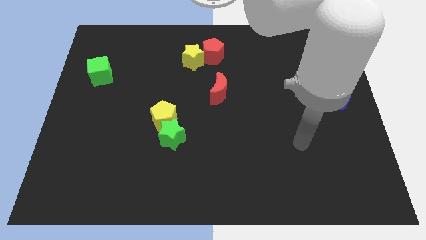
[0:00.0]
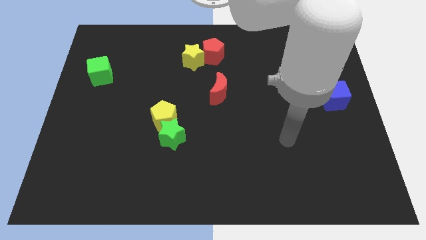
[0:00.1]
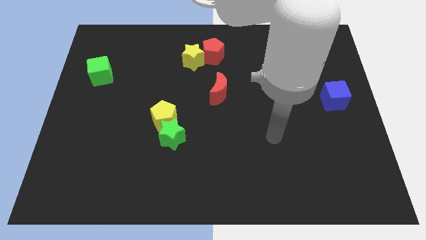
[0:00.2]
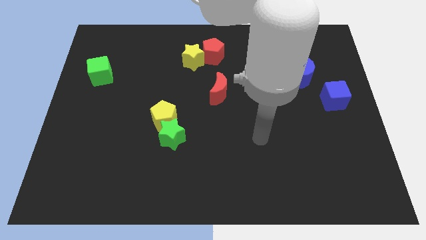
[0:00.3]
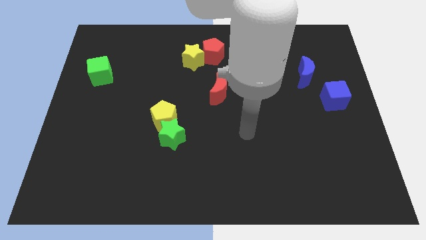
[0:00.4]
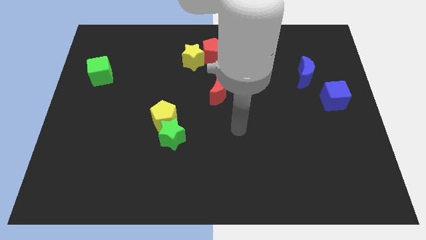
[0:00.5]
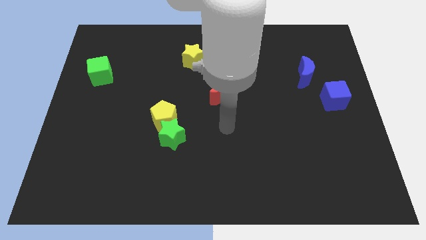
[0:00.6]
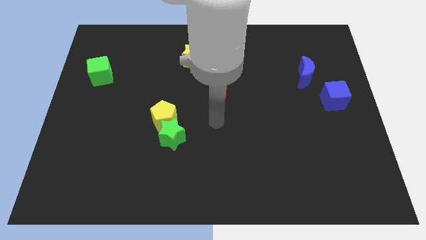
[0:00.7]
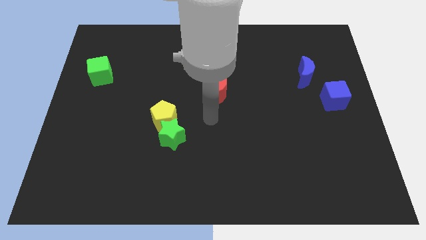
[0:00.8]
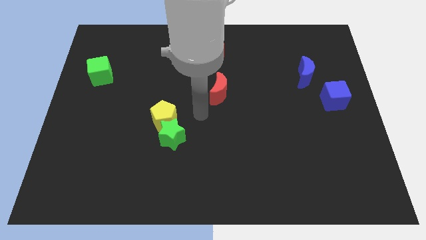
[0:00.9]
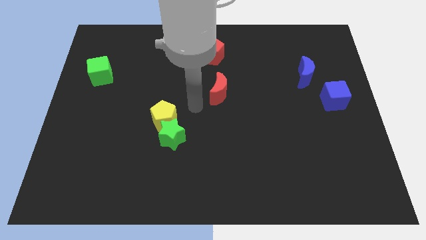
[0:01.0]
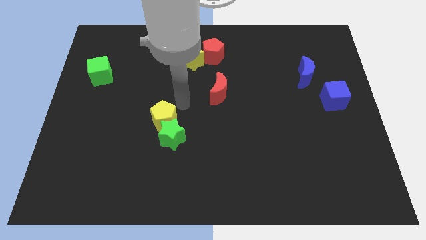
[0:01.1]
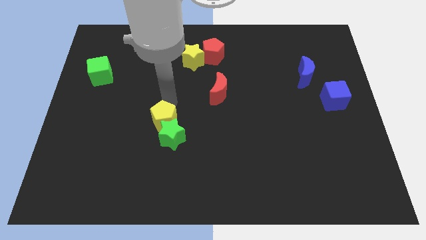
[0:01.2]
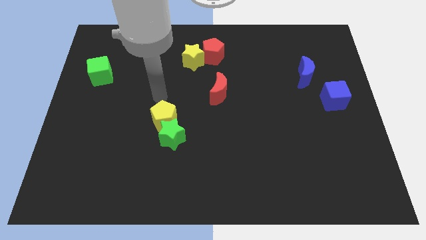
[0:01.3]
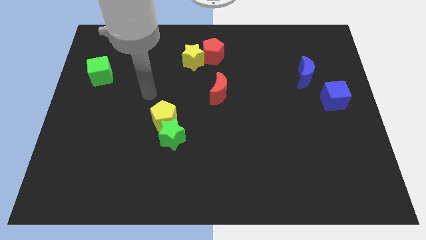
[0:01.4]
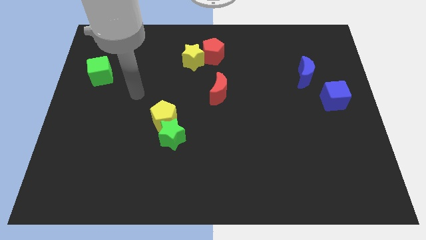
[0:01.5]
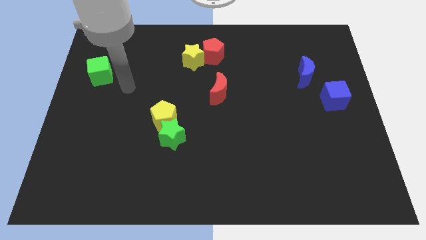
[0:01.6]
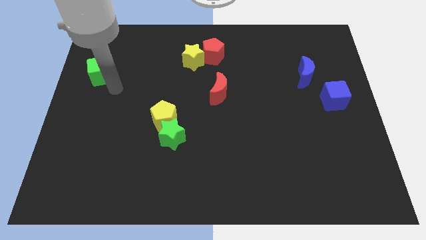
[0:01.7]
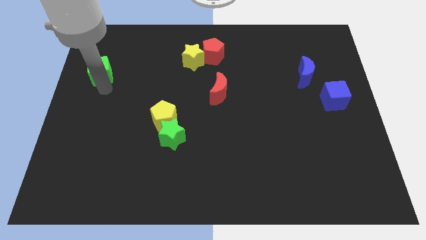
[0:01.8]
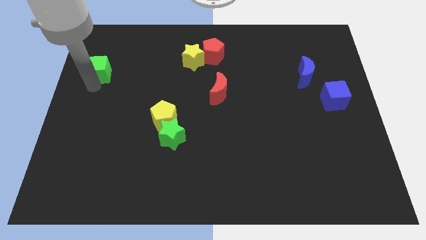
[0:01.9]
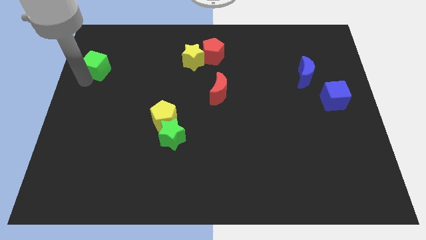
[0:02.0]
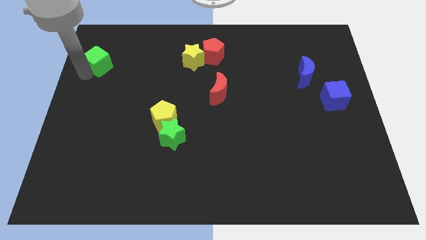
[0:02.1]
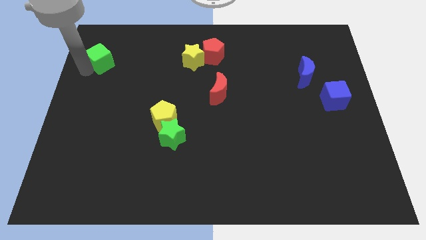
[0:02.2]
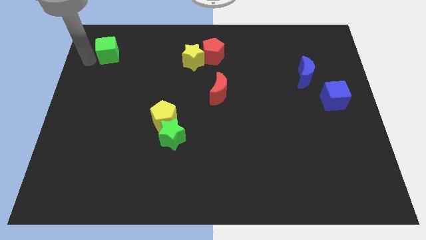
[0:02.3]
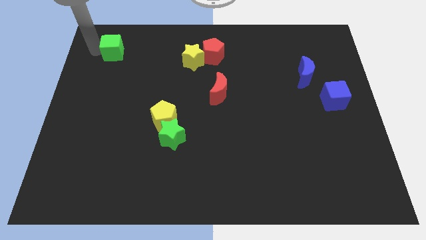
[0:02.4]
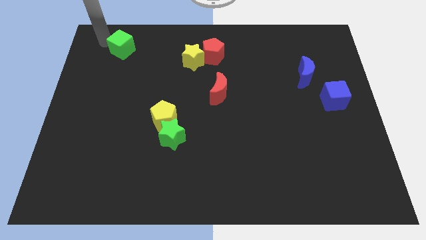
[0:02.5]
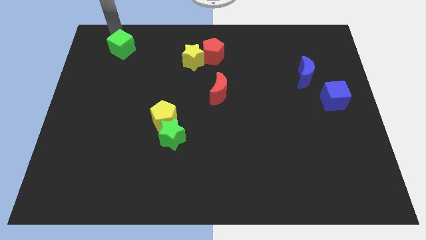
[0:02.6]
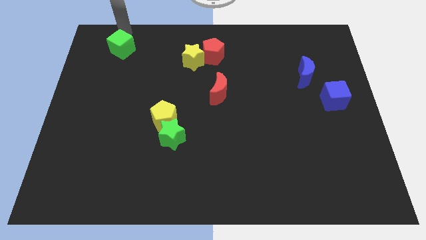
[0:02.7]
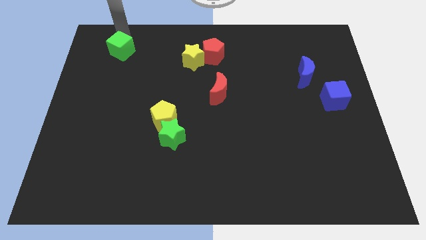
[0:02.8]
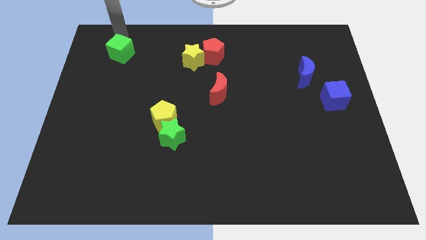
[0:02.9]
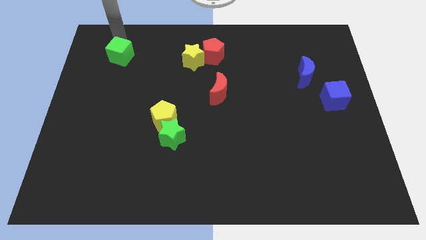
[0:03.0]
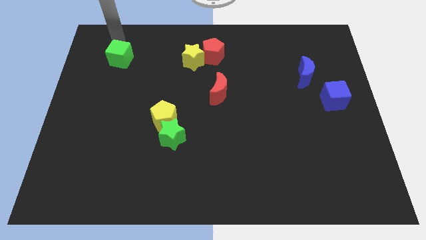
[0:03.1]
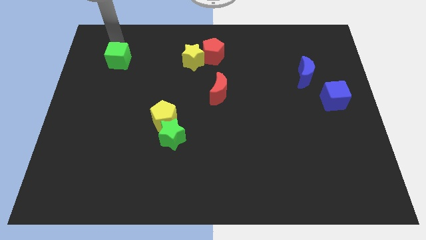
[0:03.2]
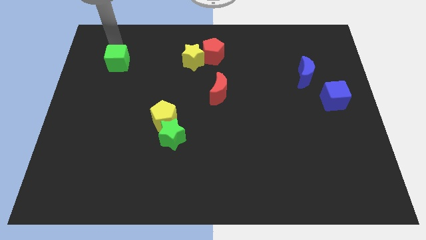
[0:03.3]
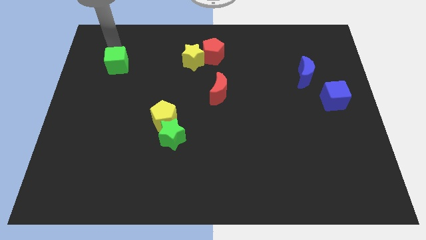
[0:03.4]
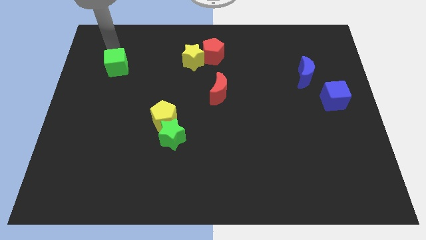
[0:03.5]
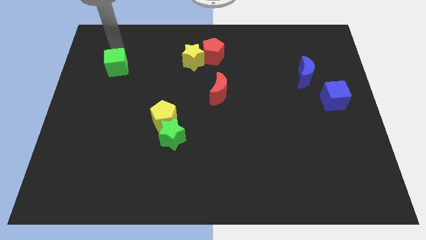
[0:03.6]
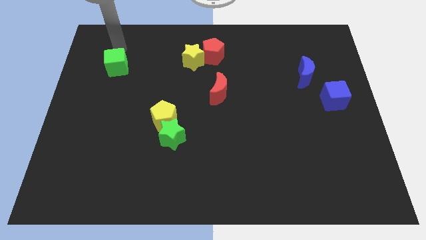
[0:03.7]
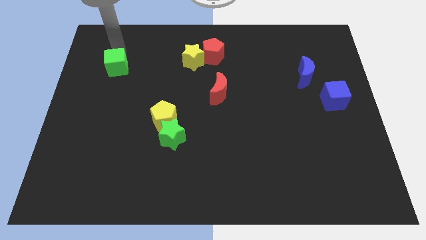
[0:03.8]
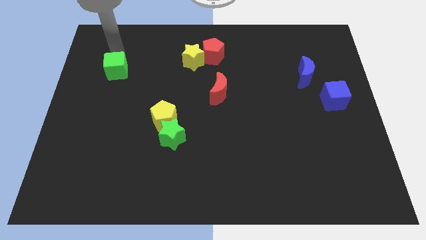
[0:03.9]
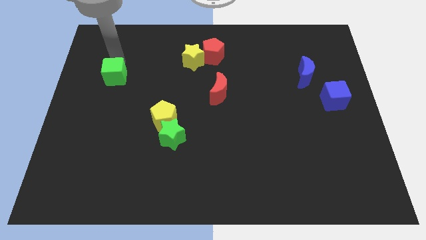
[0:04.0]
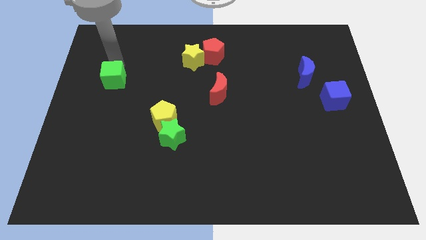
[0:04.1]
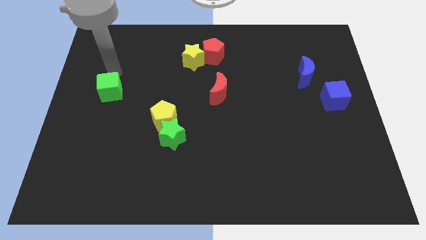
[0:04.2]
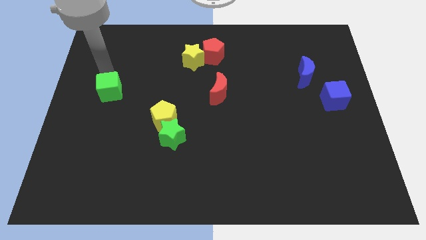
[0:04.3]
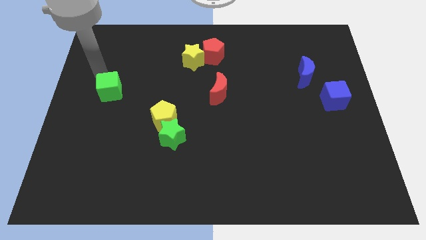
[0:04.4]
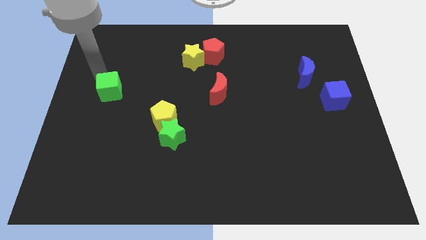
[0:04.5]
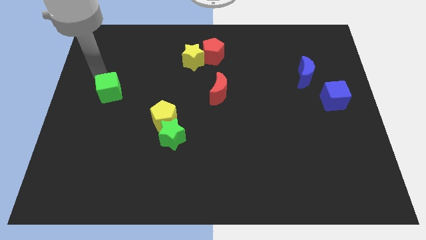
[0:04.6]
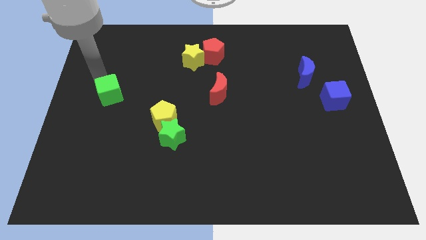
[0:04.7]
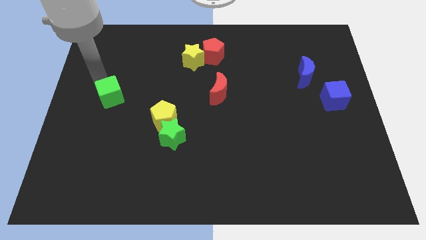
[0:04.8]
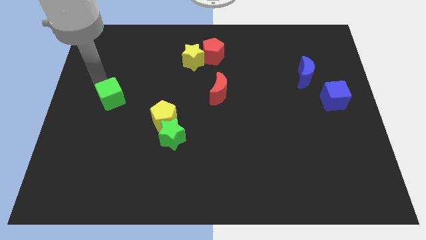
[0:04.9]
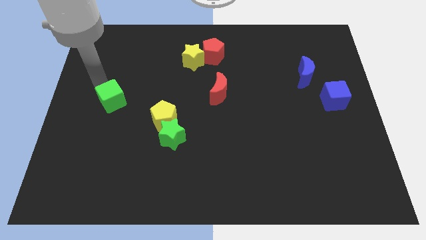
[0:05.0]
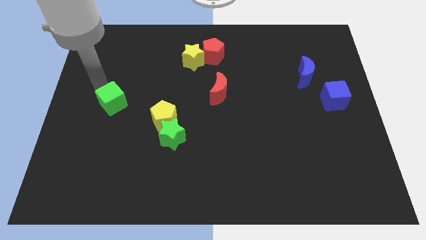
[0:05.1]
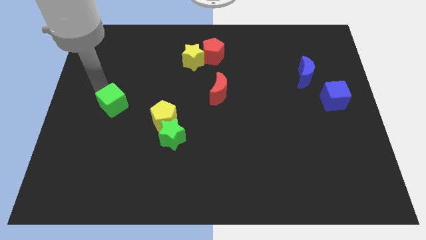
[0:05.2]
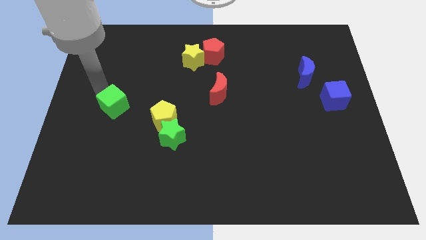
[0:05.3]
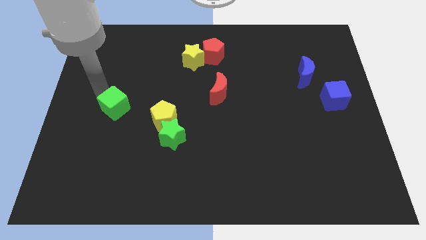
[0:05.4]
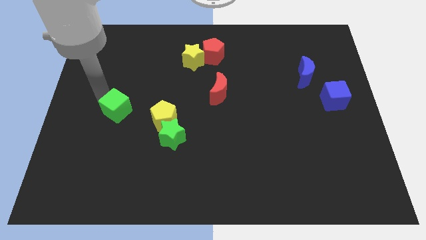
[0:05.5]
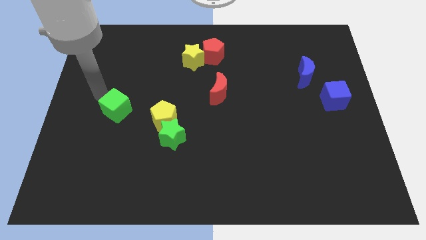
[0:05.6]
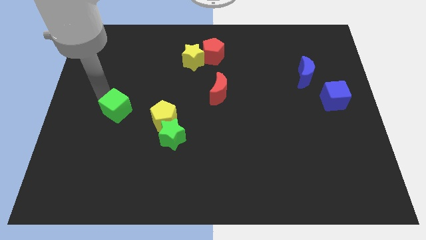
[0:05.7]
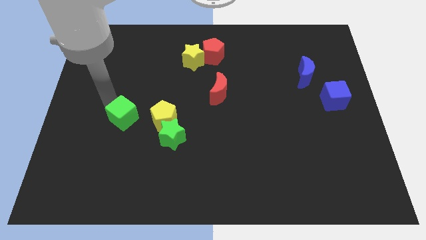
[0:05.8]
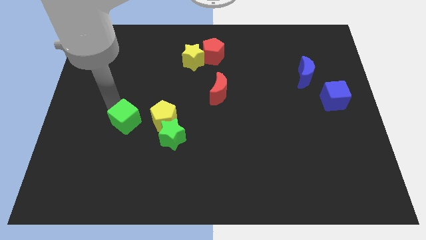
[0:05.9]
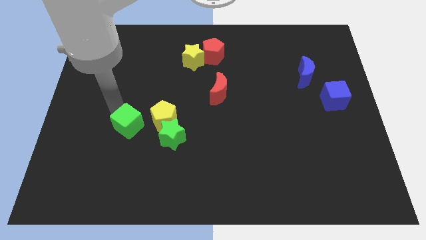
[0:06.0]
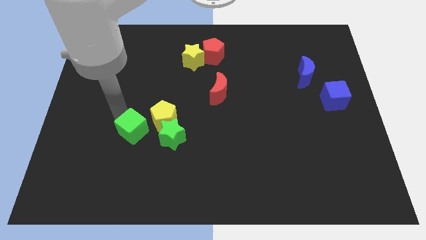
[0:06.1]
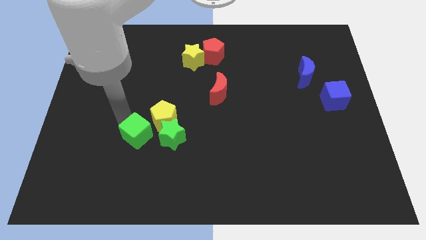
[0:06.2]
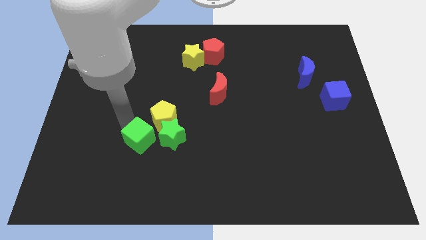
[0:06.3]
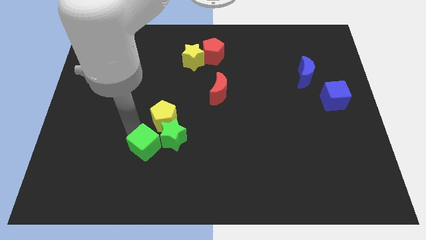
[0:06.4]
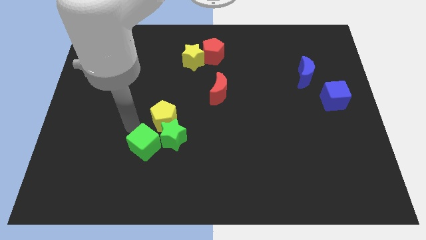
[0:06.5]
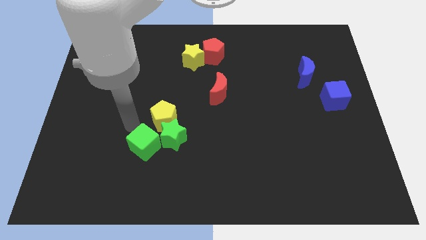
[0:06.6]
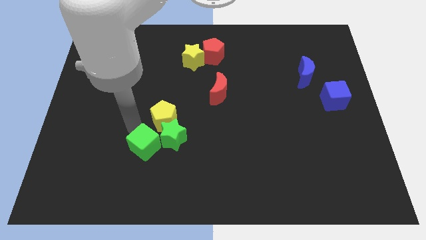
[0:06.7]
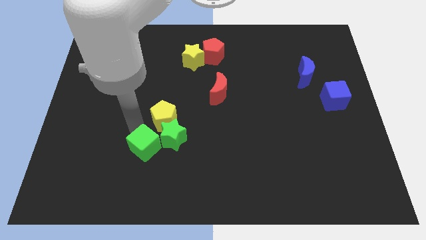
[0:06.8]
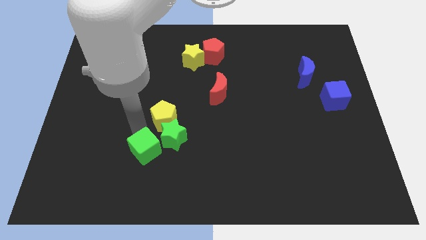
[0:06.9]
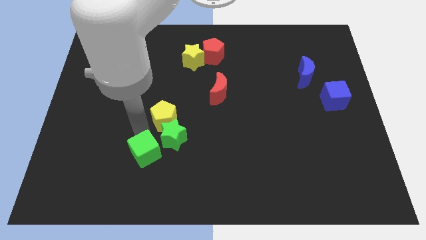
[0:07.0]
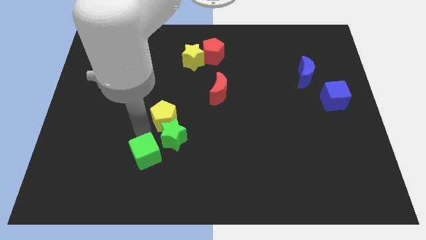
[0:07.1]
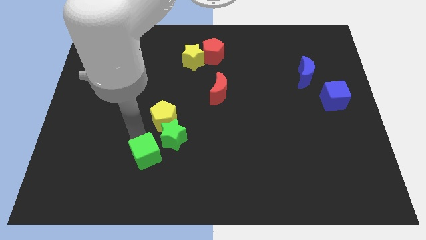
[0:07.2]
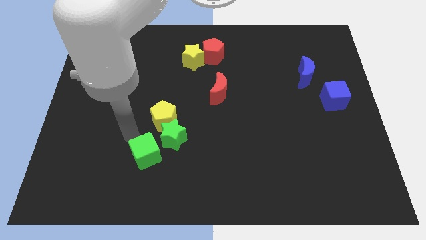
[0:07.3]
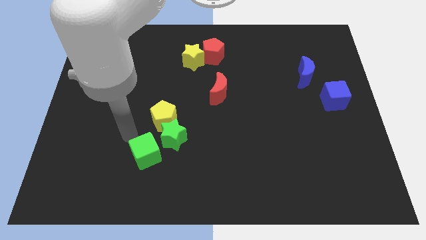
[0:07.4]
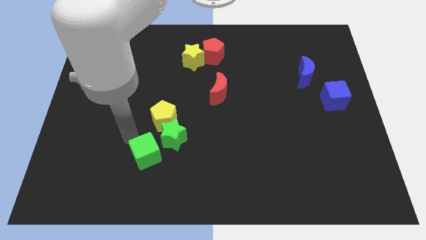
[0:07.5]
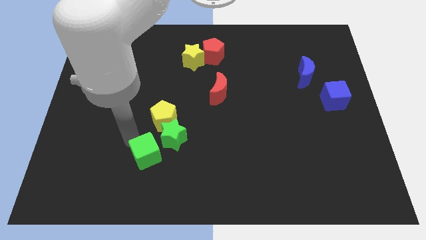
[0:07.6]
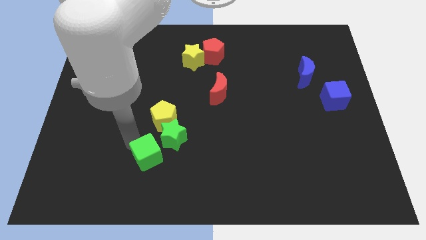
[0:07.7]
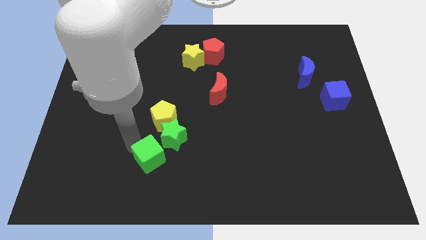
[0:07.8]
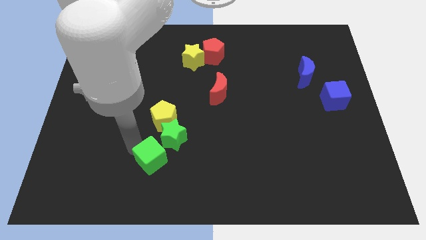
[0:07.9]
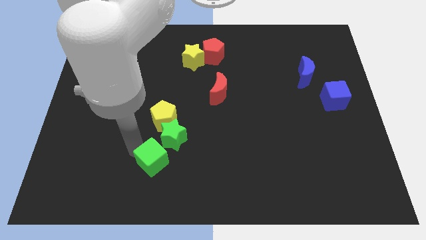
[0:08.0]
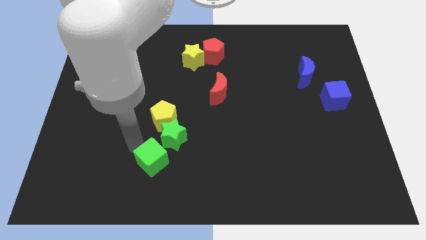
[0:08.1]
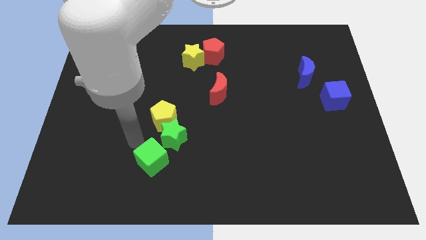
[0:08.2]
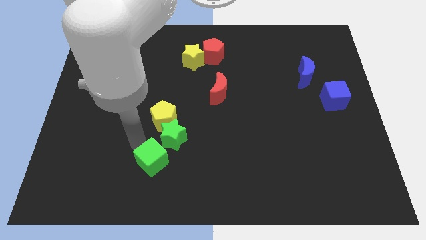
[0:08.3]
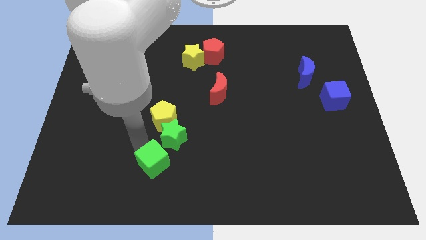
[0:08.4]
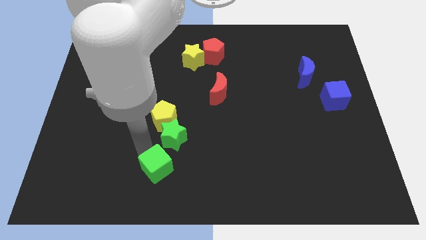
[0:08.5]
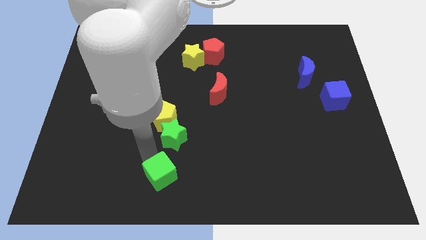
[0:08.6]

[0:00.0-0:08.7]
put the green cube to the bottom
